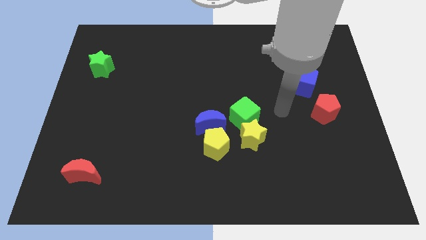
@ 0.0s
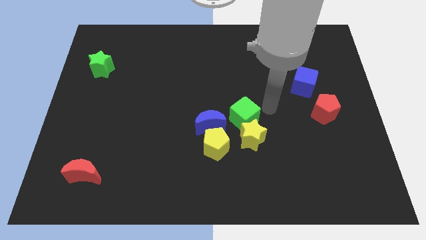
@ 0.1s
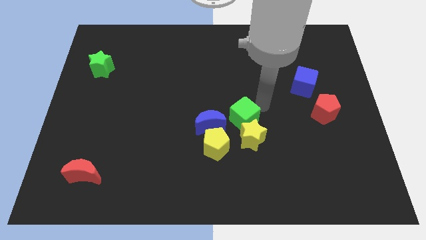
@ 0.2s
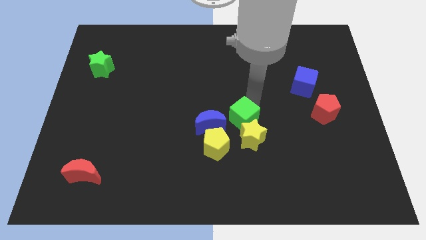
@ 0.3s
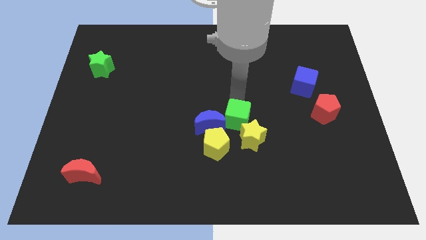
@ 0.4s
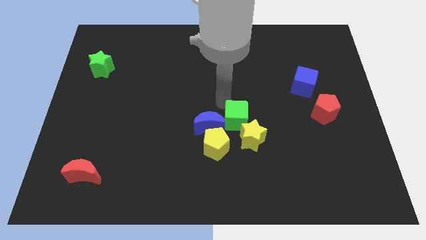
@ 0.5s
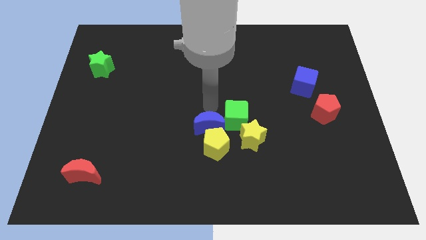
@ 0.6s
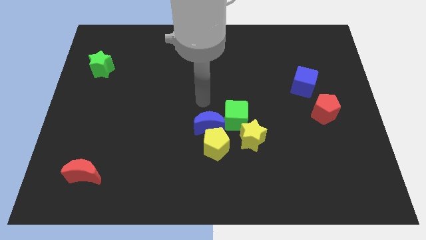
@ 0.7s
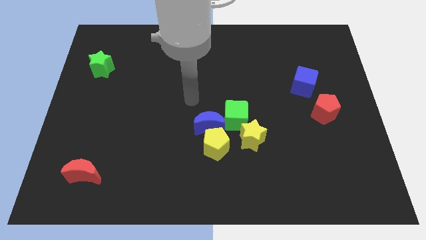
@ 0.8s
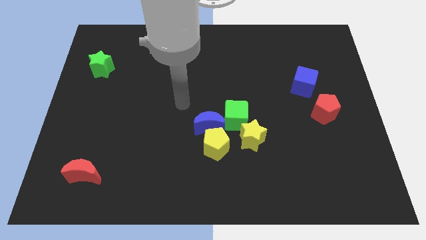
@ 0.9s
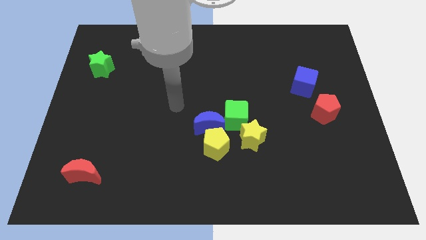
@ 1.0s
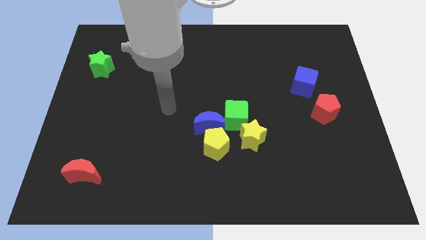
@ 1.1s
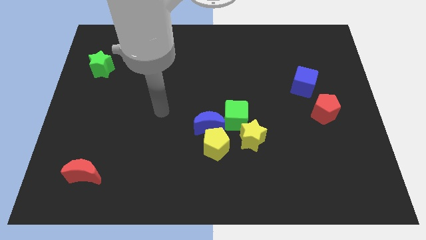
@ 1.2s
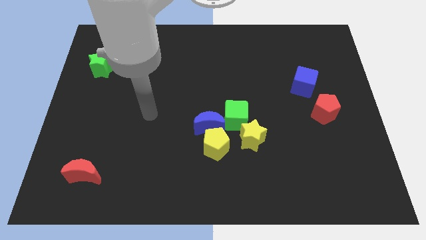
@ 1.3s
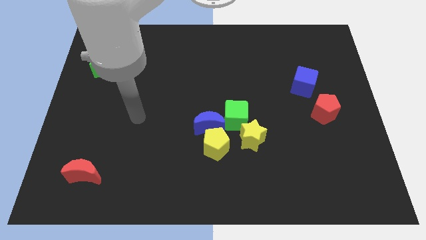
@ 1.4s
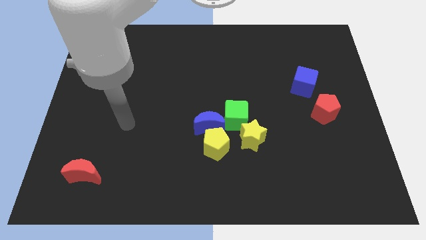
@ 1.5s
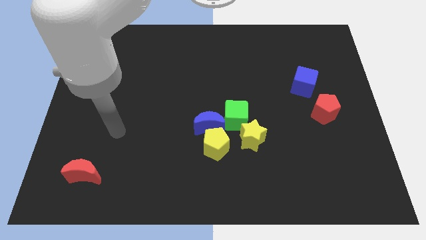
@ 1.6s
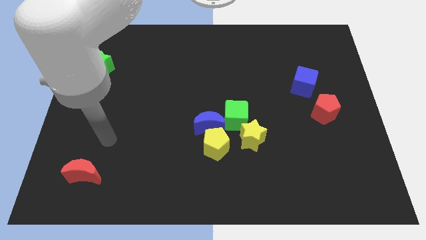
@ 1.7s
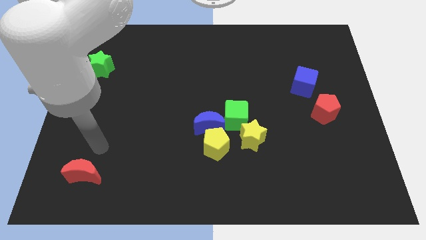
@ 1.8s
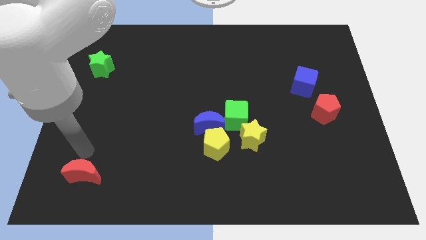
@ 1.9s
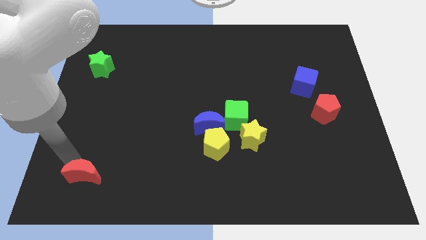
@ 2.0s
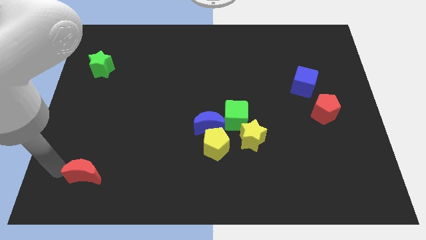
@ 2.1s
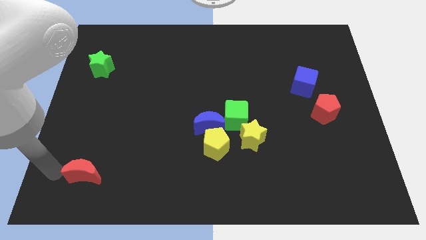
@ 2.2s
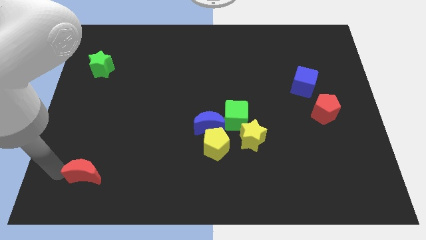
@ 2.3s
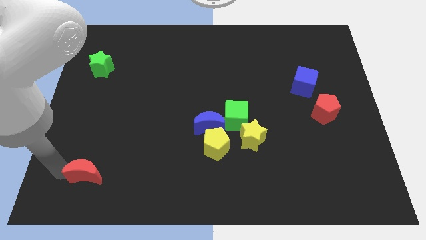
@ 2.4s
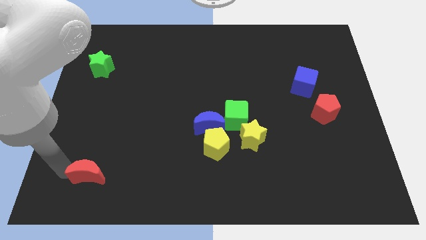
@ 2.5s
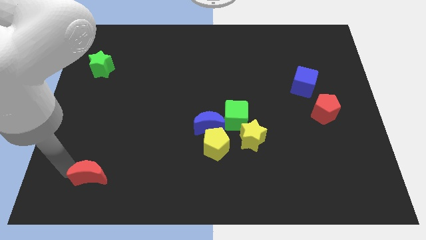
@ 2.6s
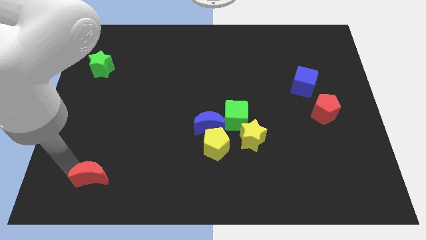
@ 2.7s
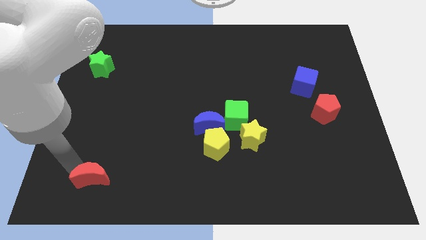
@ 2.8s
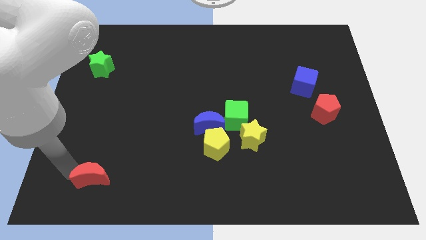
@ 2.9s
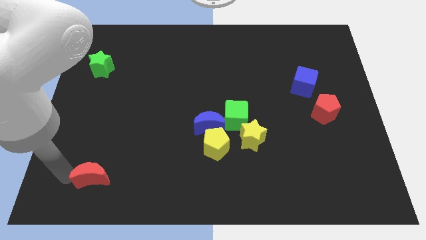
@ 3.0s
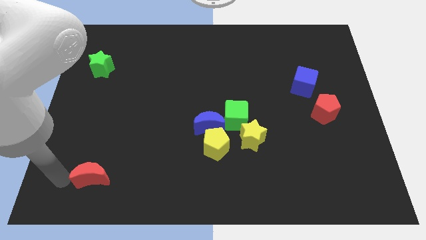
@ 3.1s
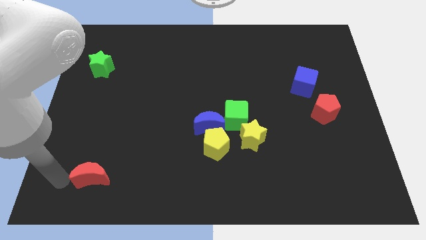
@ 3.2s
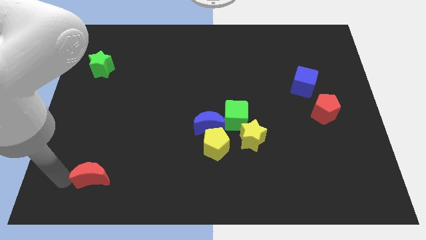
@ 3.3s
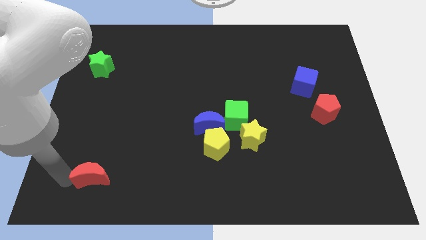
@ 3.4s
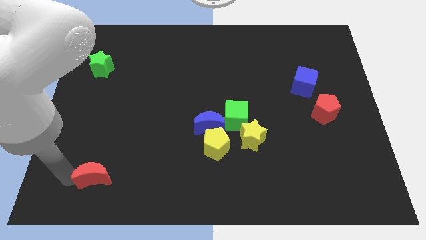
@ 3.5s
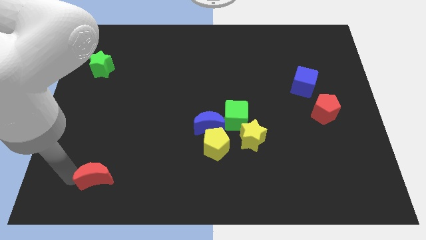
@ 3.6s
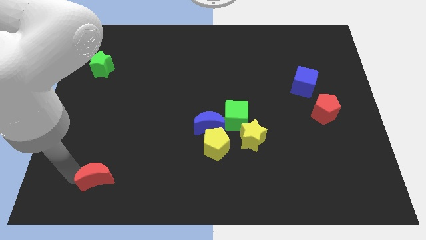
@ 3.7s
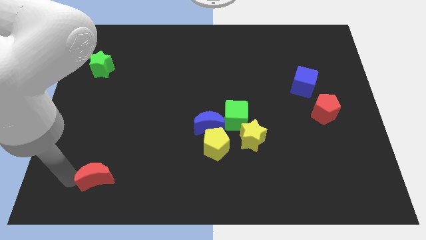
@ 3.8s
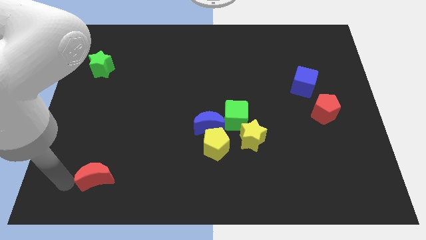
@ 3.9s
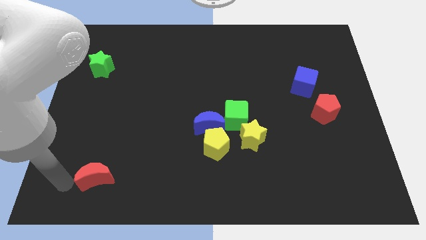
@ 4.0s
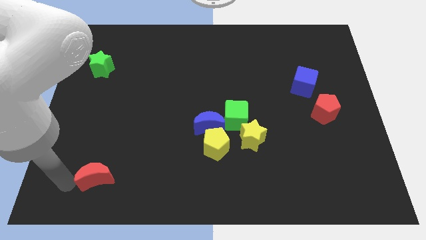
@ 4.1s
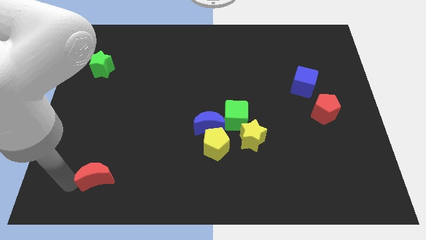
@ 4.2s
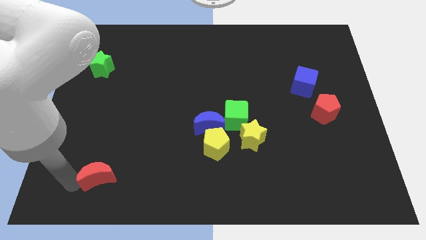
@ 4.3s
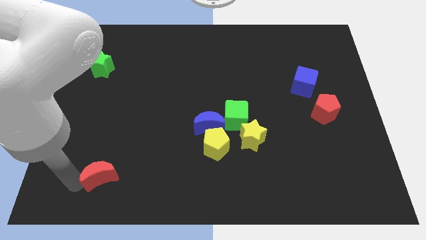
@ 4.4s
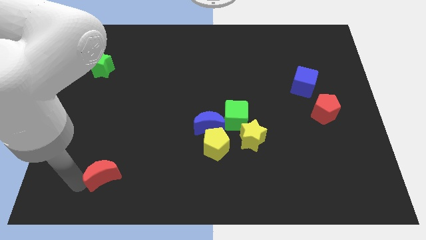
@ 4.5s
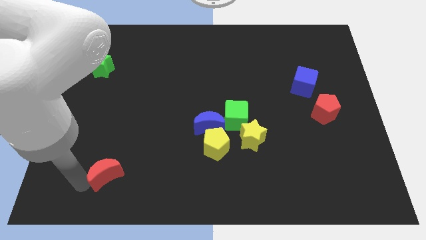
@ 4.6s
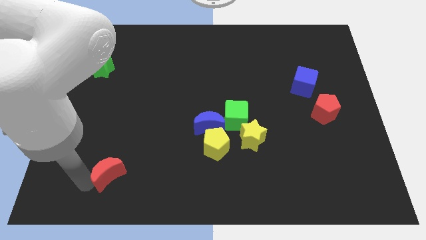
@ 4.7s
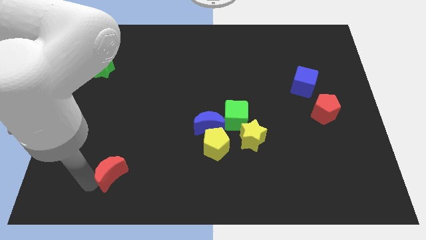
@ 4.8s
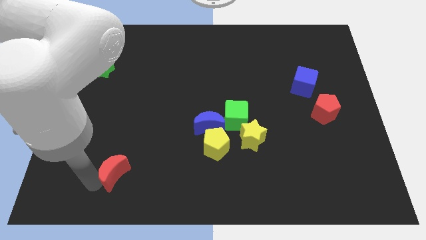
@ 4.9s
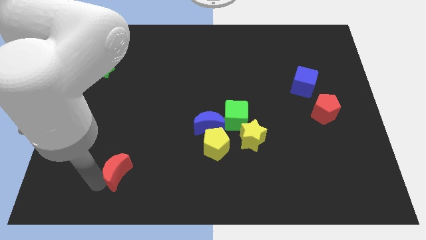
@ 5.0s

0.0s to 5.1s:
move the red moon a little right

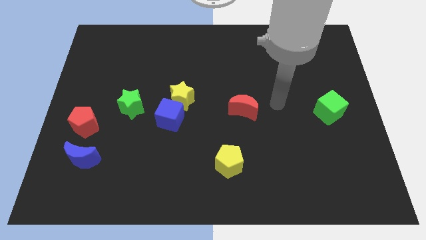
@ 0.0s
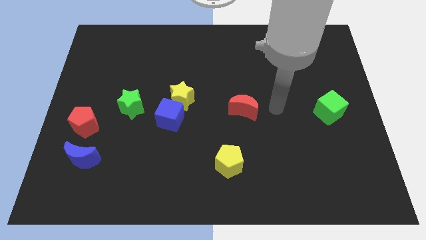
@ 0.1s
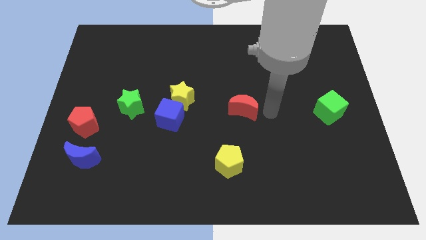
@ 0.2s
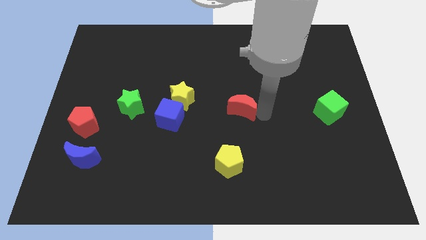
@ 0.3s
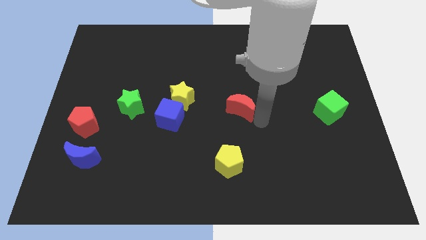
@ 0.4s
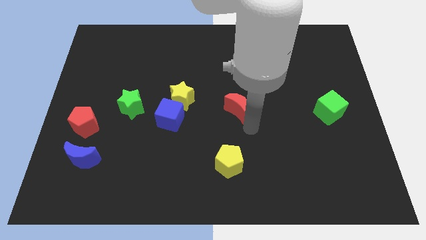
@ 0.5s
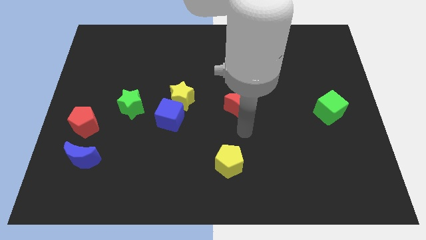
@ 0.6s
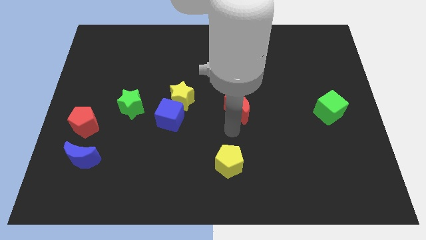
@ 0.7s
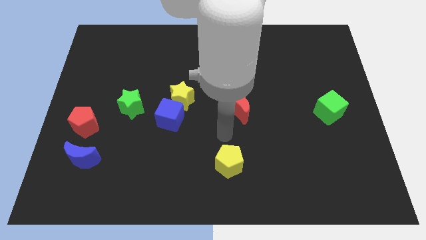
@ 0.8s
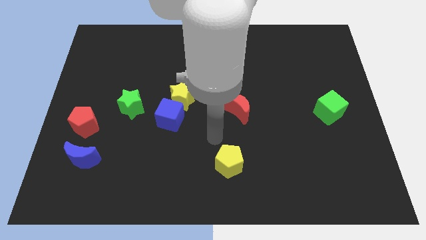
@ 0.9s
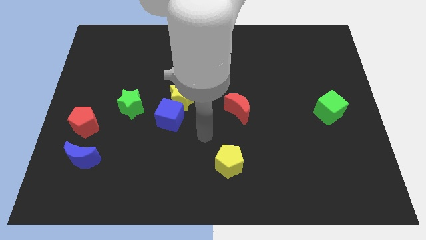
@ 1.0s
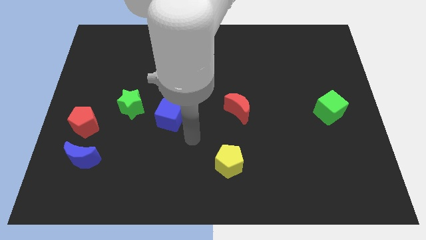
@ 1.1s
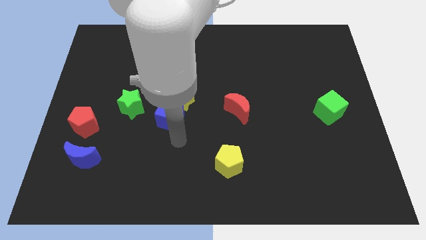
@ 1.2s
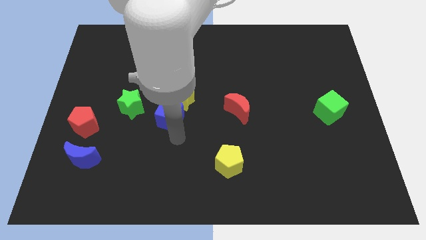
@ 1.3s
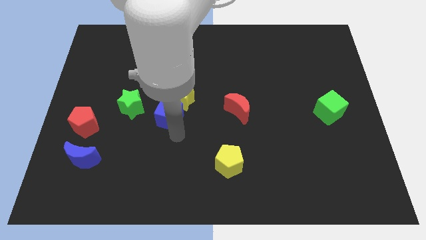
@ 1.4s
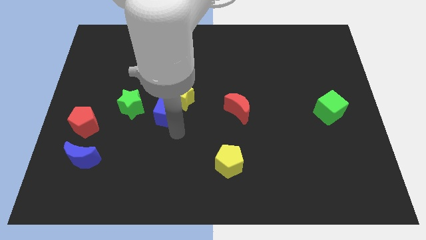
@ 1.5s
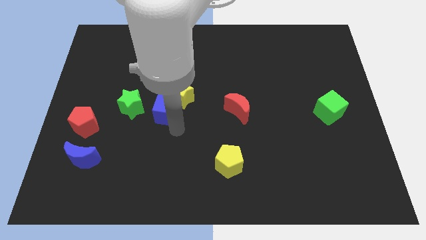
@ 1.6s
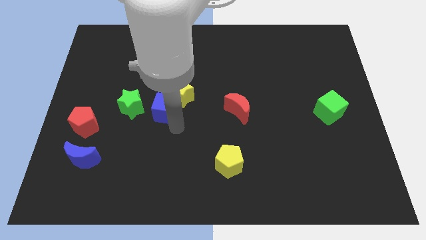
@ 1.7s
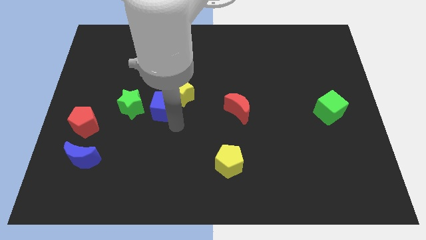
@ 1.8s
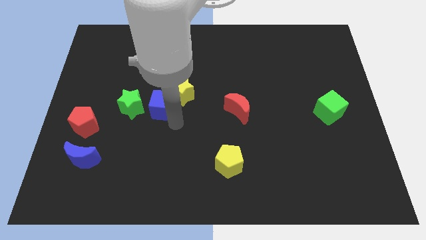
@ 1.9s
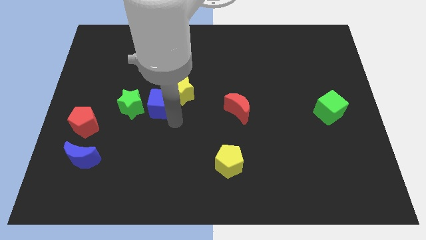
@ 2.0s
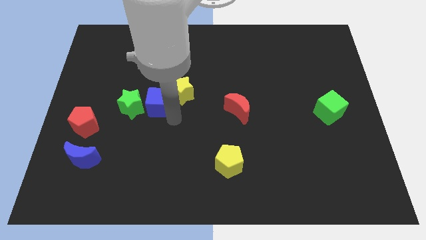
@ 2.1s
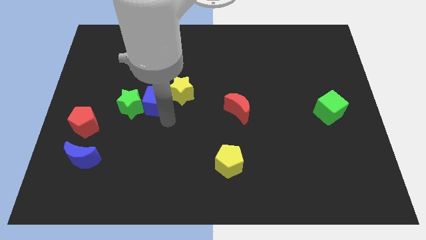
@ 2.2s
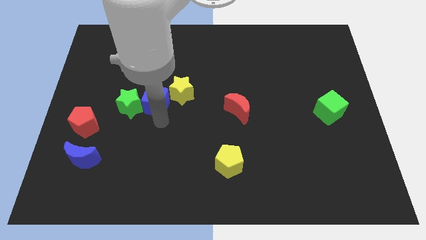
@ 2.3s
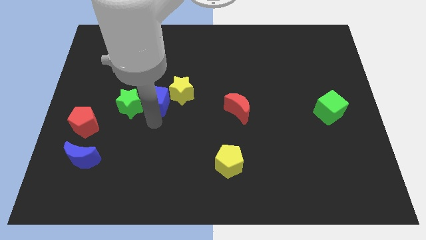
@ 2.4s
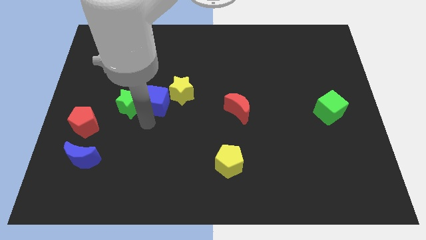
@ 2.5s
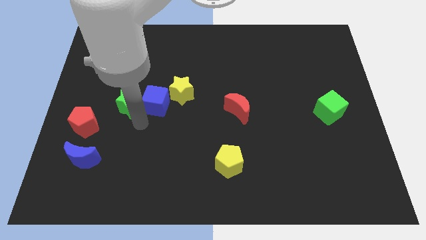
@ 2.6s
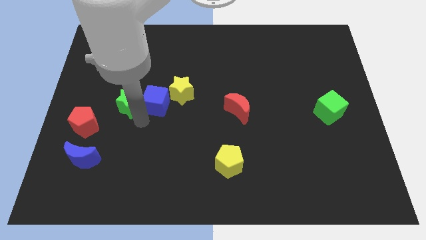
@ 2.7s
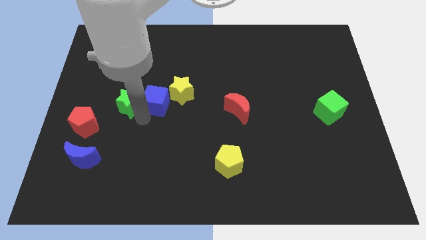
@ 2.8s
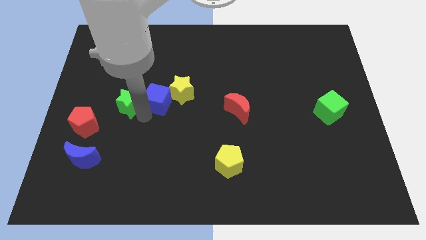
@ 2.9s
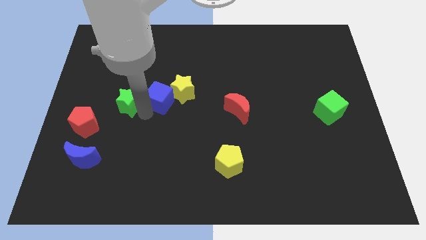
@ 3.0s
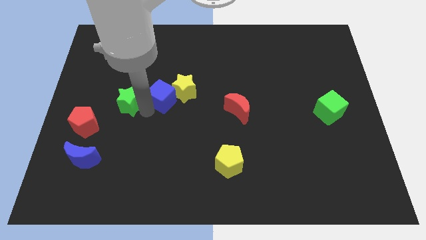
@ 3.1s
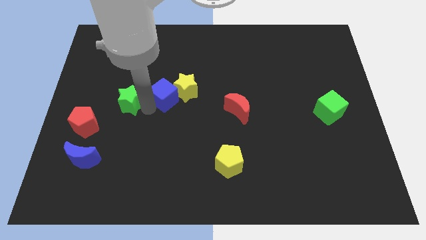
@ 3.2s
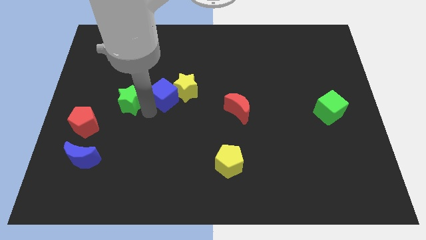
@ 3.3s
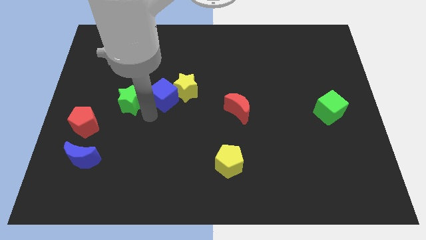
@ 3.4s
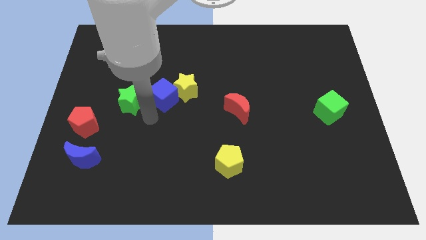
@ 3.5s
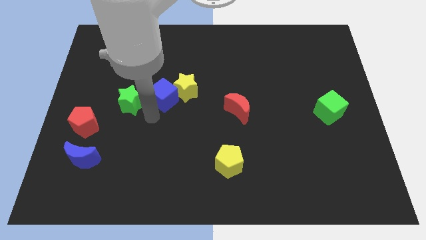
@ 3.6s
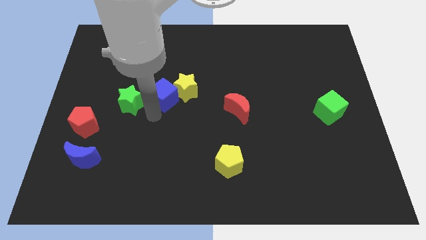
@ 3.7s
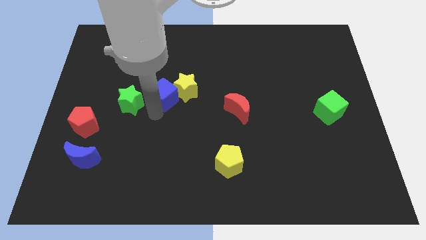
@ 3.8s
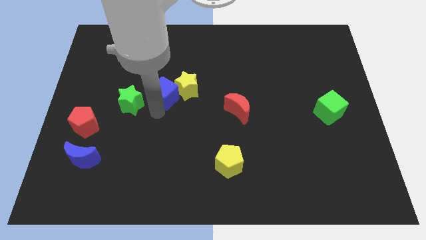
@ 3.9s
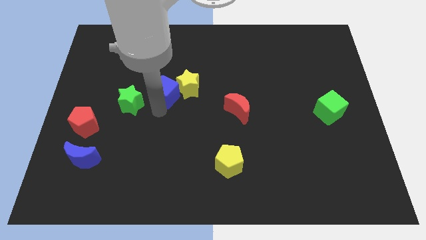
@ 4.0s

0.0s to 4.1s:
slightly slide the blue cube up
